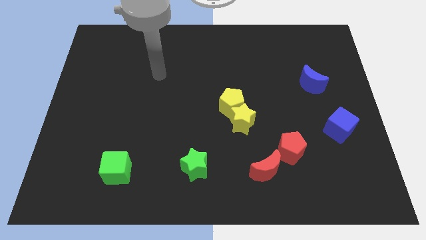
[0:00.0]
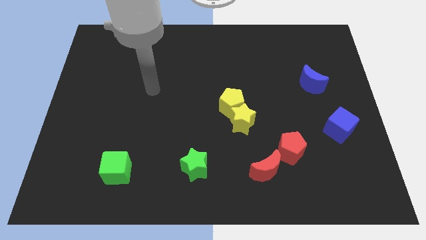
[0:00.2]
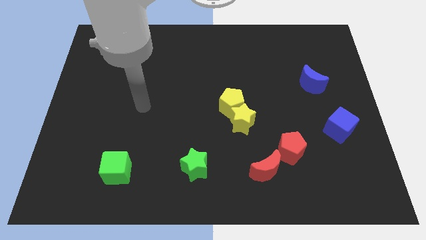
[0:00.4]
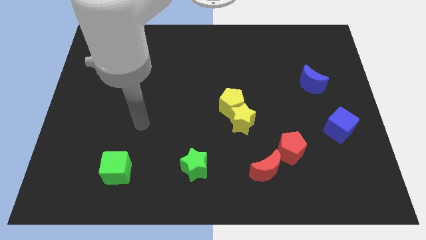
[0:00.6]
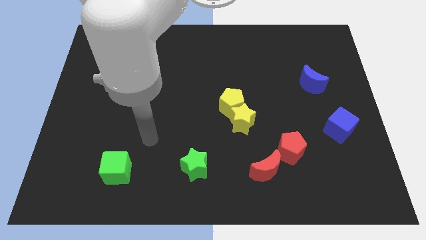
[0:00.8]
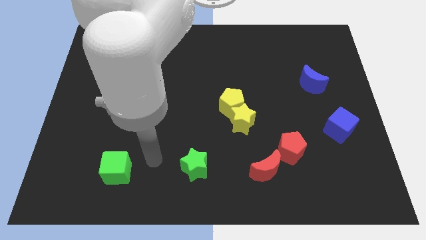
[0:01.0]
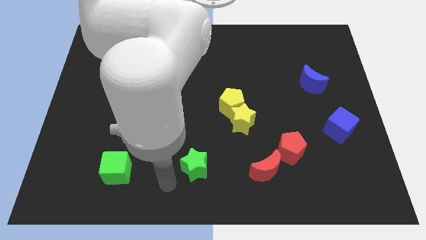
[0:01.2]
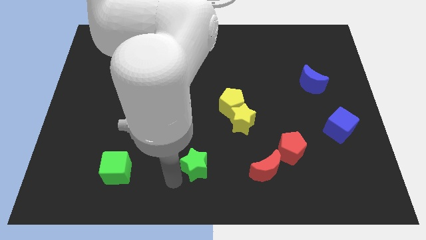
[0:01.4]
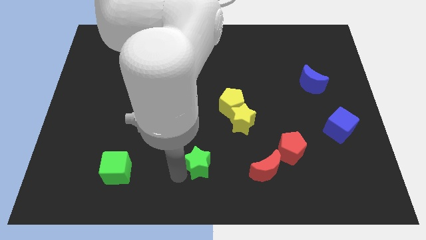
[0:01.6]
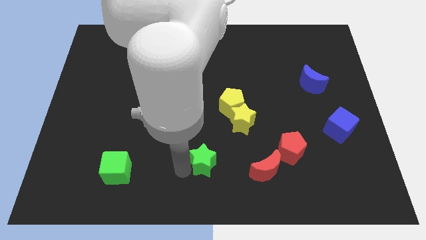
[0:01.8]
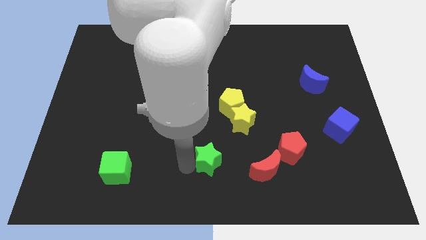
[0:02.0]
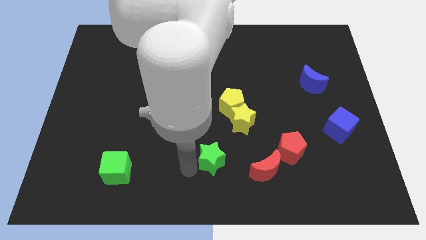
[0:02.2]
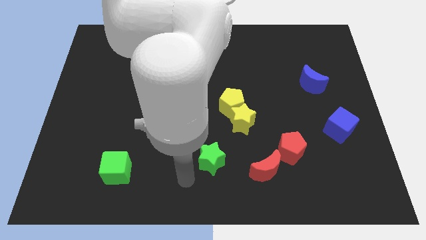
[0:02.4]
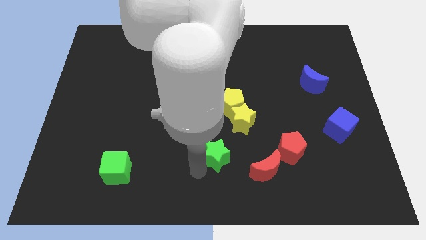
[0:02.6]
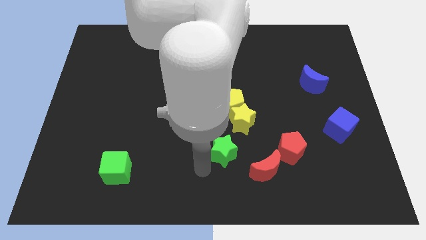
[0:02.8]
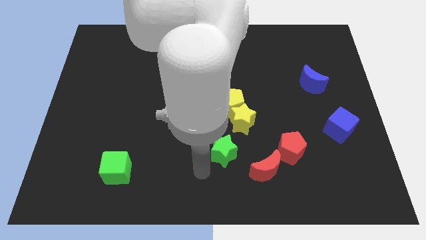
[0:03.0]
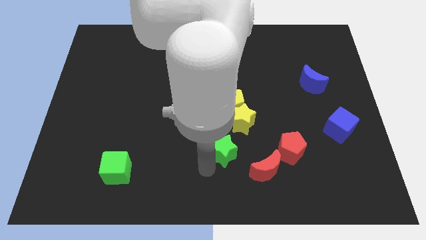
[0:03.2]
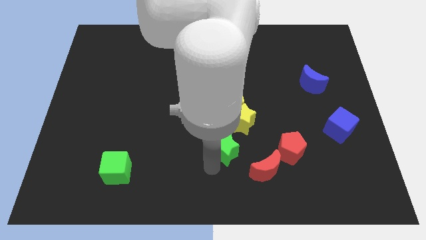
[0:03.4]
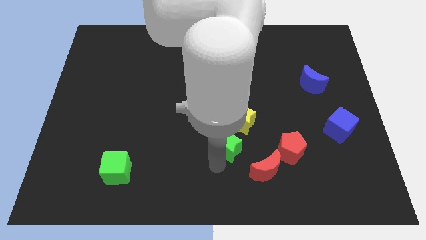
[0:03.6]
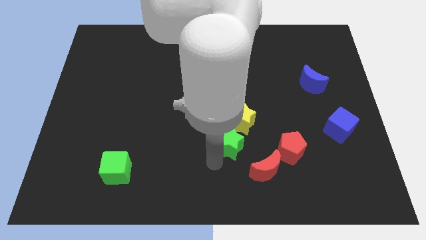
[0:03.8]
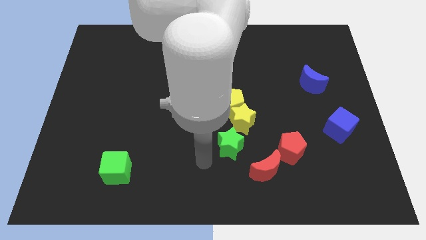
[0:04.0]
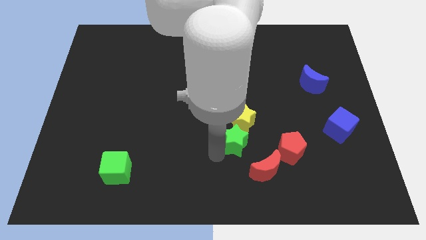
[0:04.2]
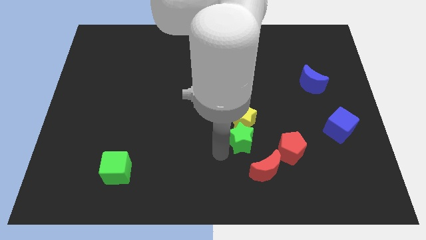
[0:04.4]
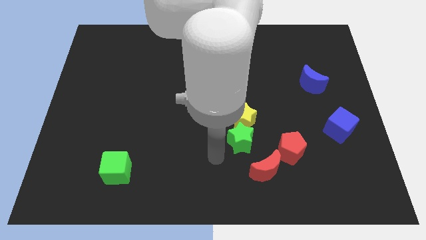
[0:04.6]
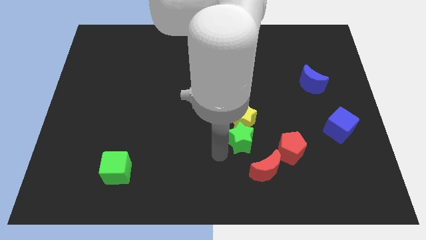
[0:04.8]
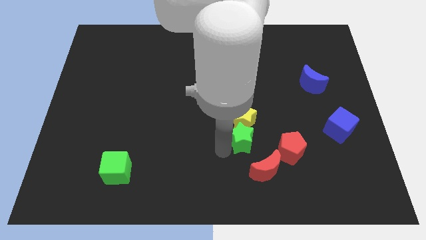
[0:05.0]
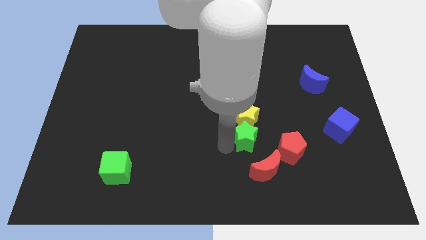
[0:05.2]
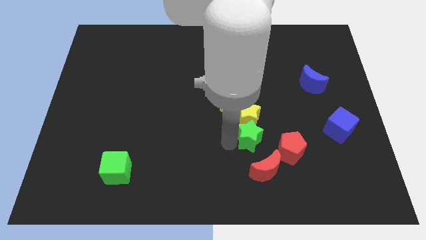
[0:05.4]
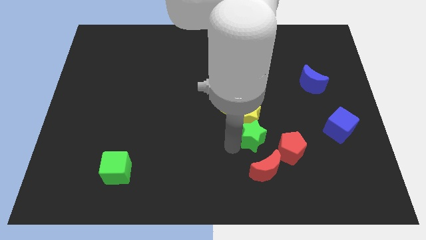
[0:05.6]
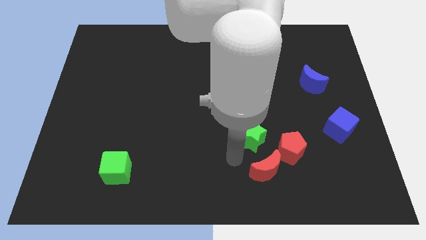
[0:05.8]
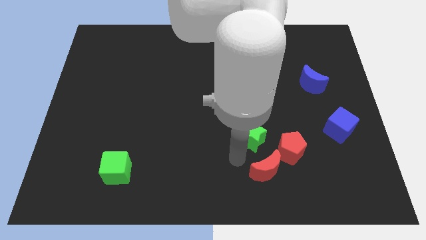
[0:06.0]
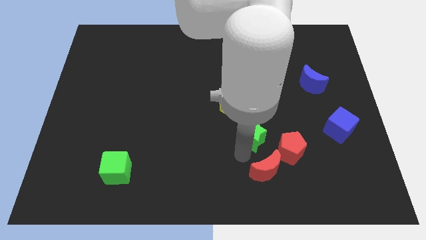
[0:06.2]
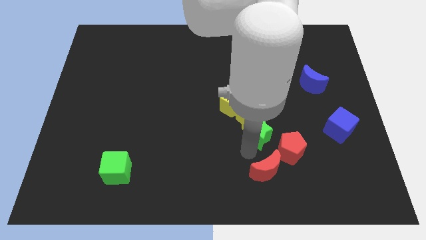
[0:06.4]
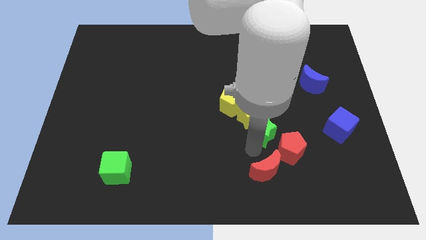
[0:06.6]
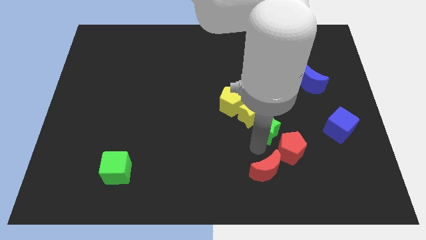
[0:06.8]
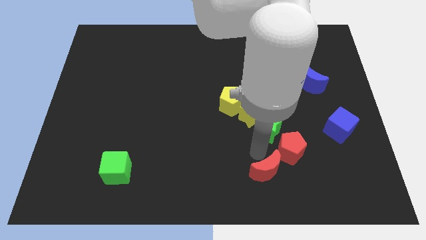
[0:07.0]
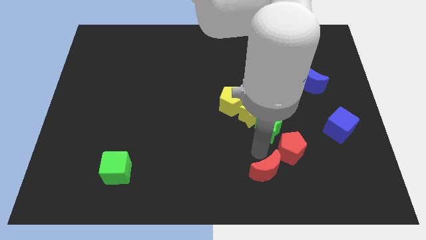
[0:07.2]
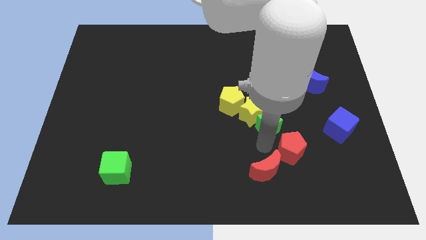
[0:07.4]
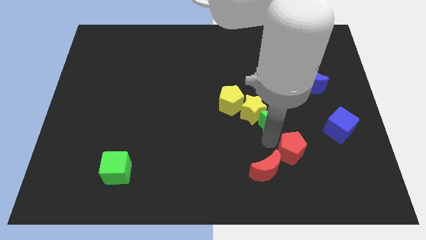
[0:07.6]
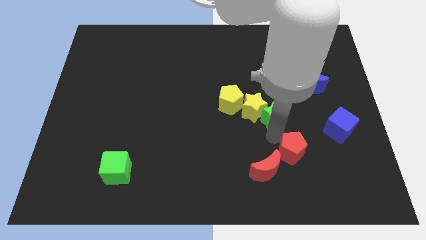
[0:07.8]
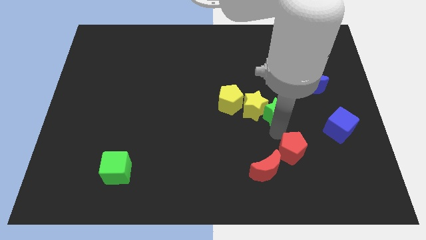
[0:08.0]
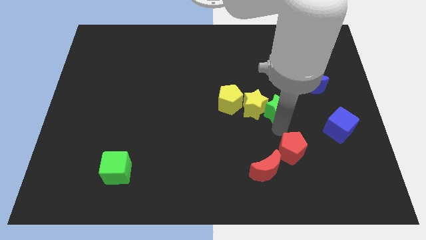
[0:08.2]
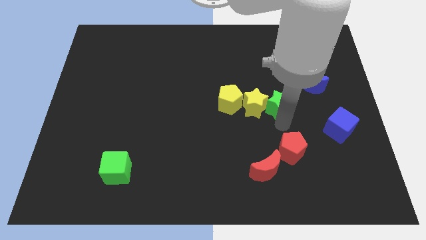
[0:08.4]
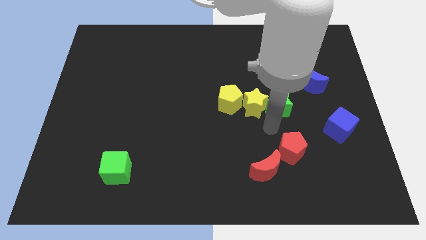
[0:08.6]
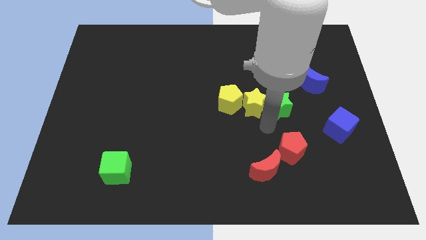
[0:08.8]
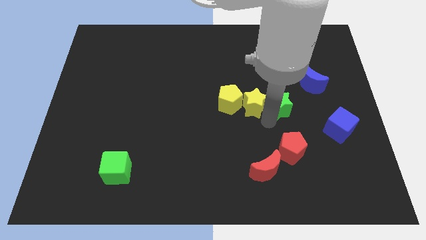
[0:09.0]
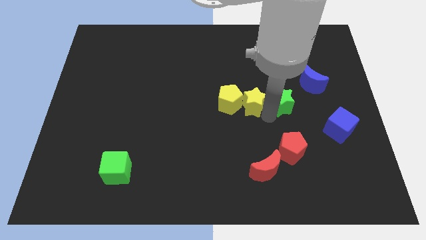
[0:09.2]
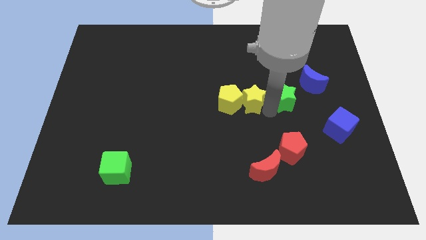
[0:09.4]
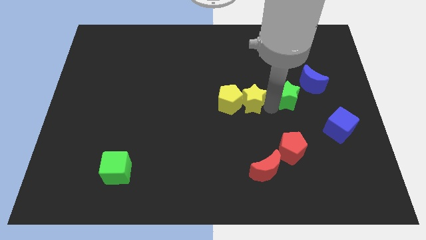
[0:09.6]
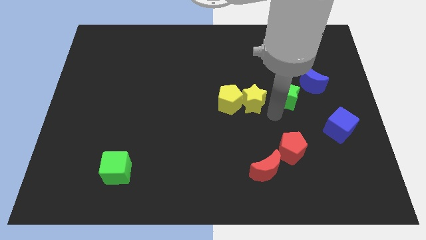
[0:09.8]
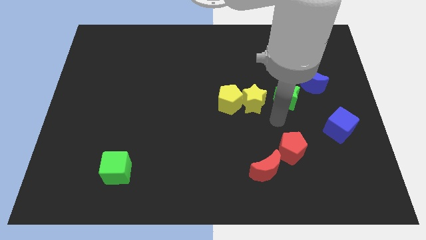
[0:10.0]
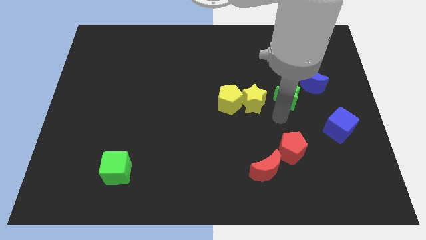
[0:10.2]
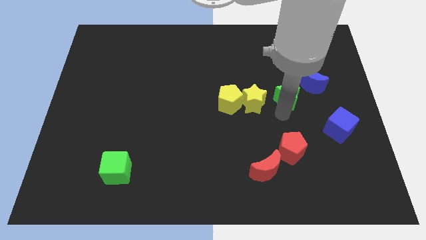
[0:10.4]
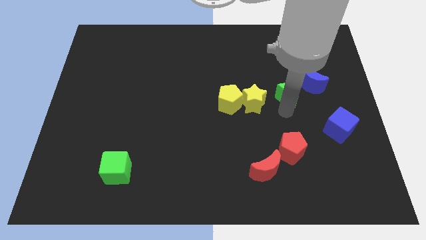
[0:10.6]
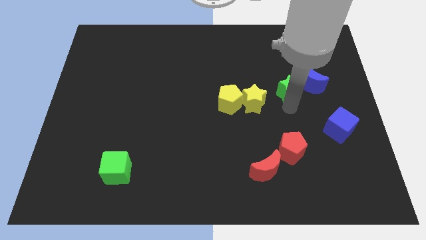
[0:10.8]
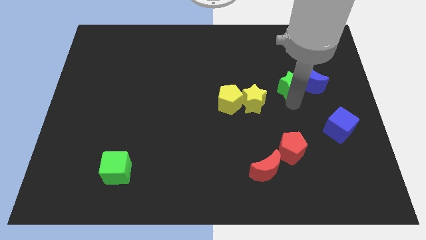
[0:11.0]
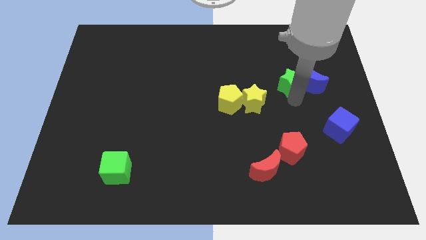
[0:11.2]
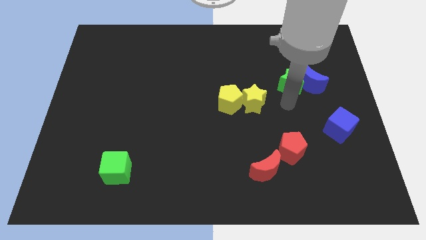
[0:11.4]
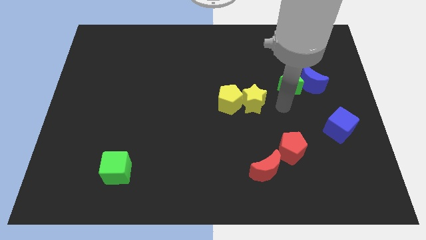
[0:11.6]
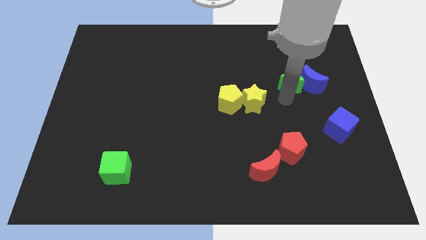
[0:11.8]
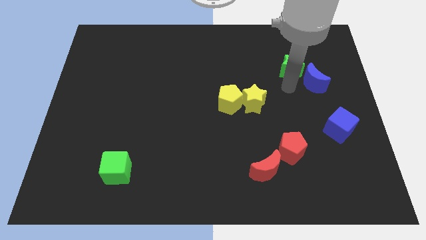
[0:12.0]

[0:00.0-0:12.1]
push the green star to the top side of the blue moon

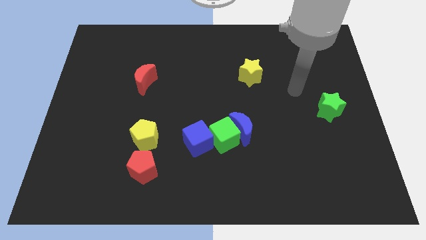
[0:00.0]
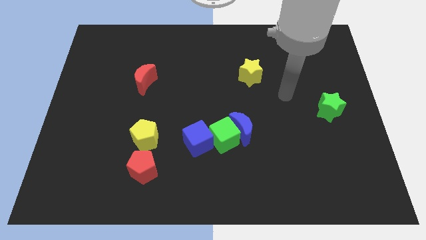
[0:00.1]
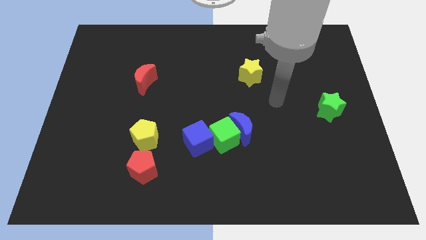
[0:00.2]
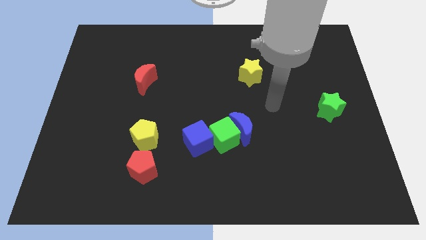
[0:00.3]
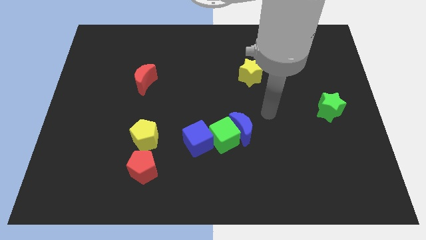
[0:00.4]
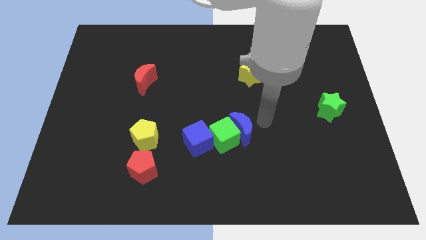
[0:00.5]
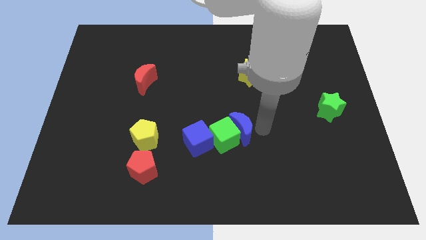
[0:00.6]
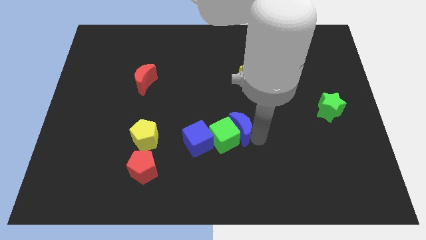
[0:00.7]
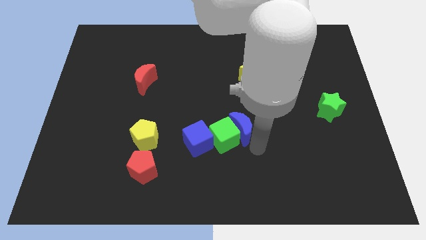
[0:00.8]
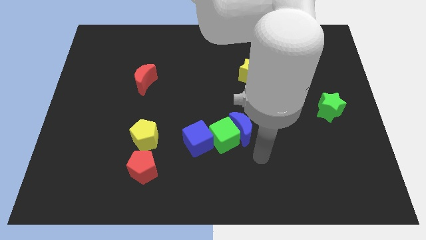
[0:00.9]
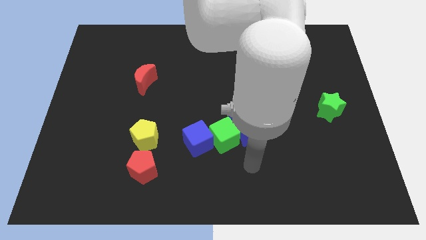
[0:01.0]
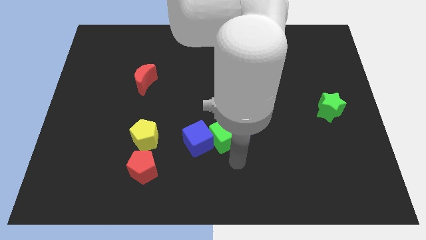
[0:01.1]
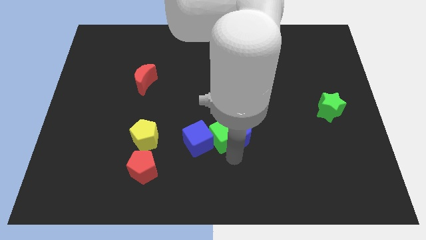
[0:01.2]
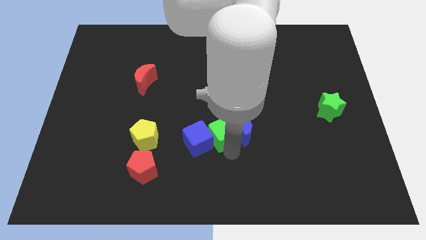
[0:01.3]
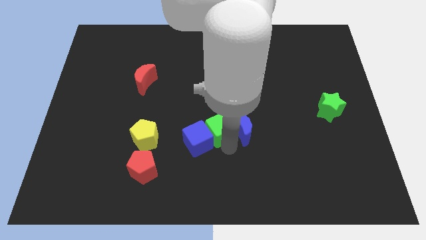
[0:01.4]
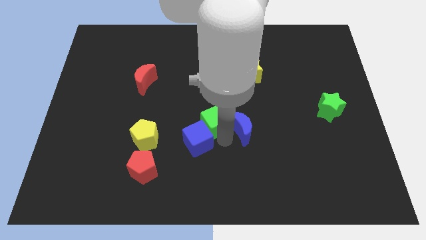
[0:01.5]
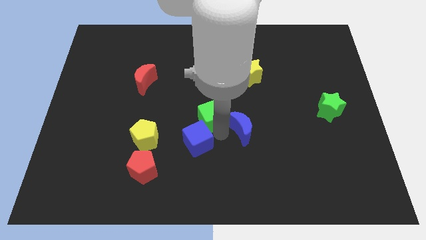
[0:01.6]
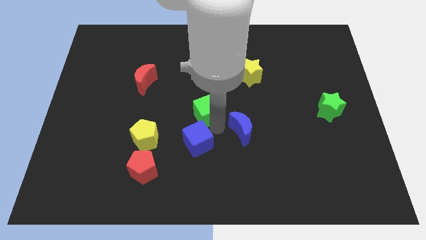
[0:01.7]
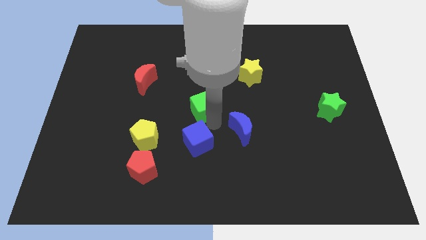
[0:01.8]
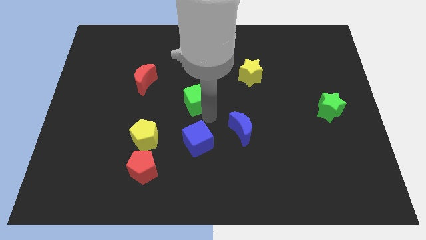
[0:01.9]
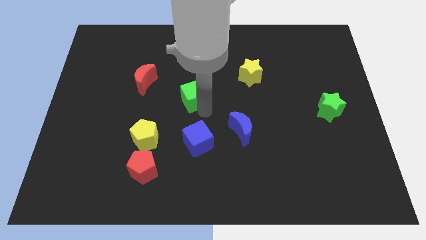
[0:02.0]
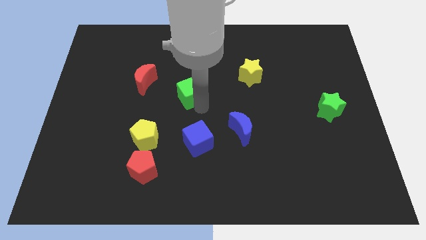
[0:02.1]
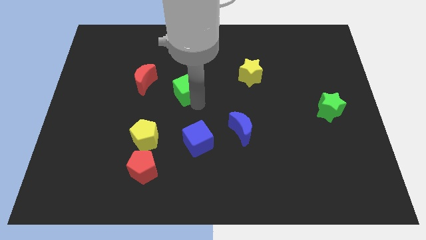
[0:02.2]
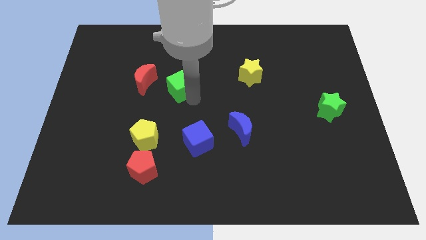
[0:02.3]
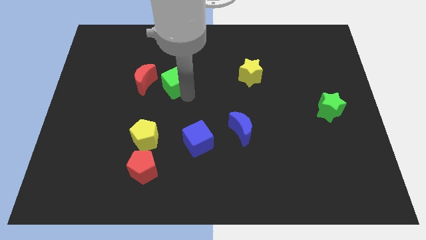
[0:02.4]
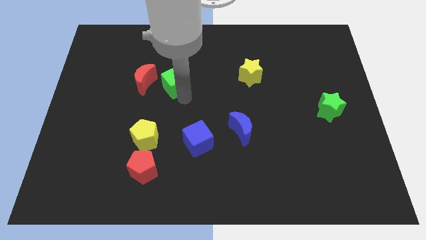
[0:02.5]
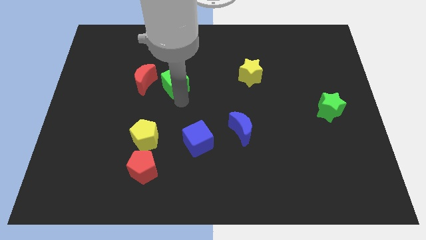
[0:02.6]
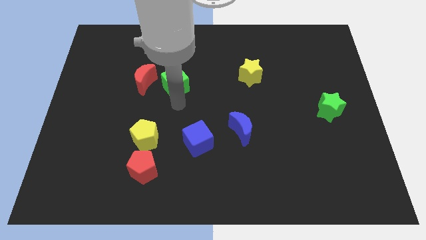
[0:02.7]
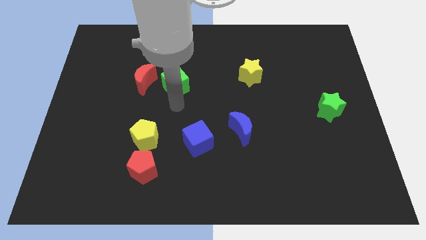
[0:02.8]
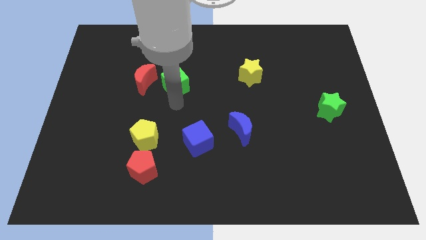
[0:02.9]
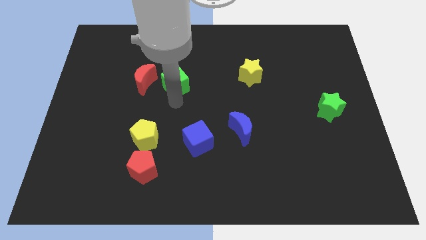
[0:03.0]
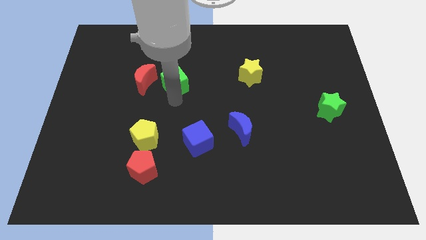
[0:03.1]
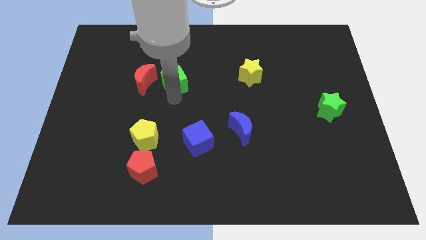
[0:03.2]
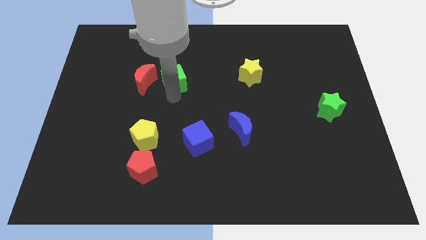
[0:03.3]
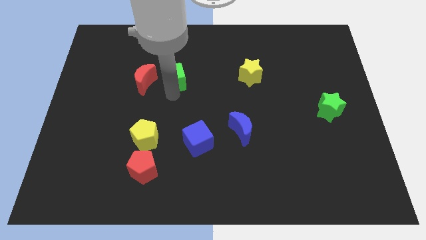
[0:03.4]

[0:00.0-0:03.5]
slide the green cube diagonally up and to the right of the red moon
